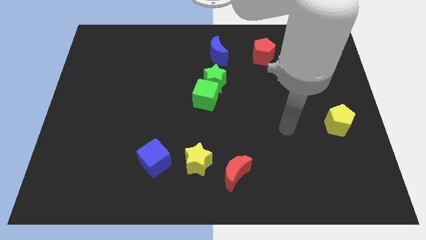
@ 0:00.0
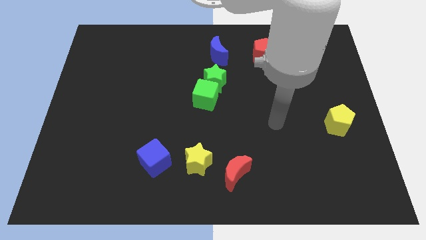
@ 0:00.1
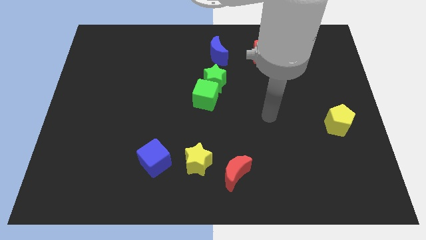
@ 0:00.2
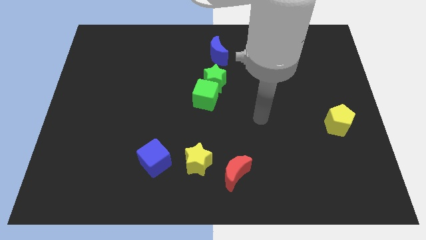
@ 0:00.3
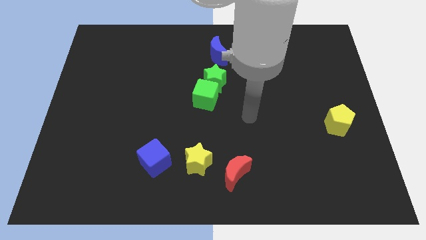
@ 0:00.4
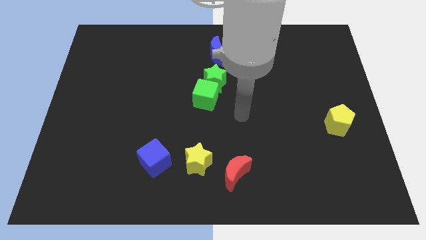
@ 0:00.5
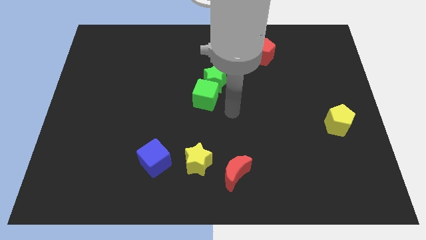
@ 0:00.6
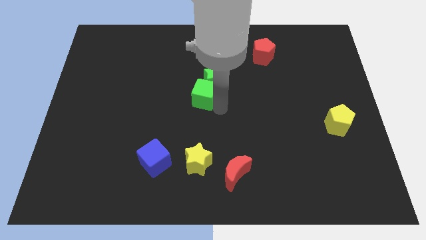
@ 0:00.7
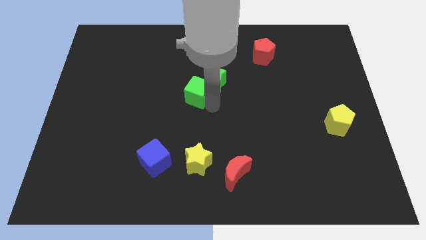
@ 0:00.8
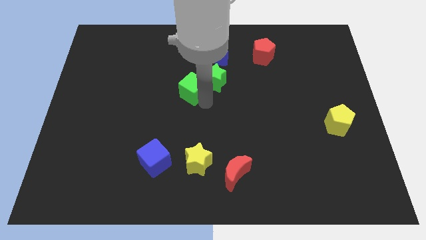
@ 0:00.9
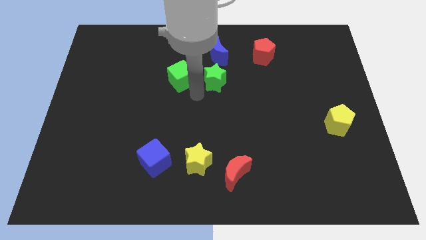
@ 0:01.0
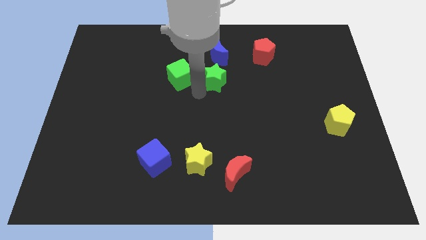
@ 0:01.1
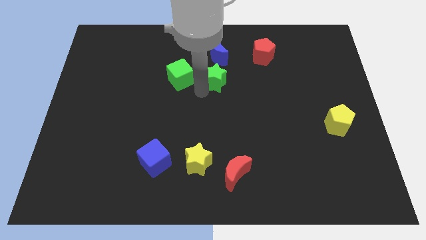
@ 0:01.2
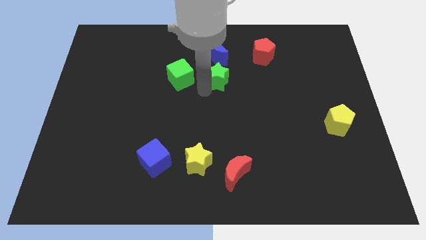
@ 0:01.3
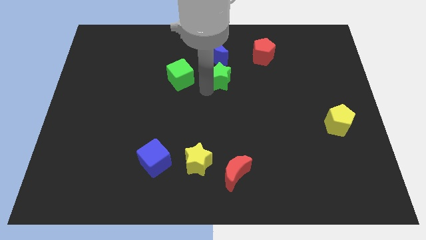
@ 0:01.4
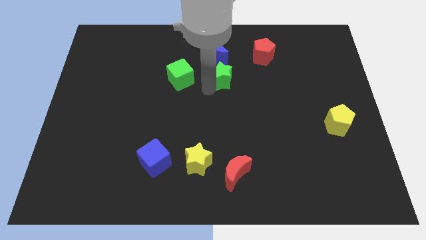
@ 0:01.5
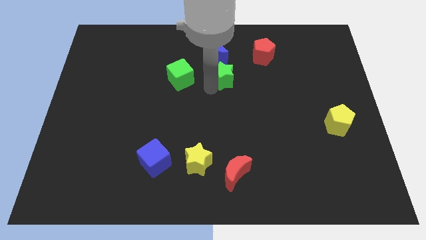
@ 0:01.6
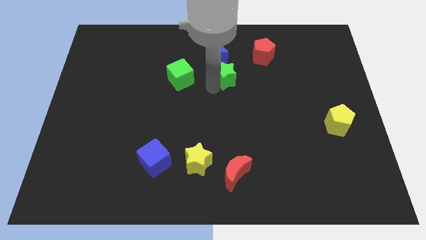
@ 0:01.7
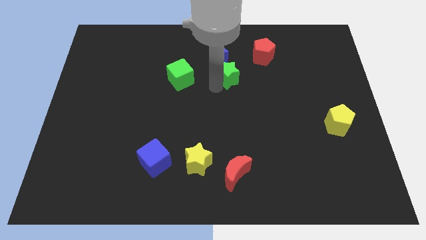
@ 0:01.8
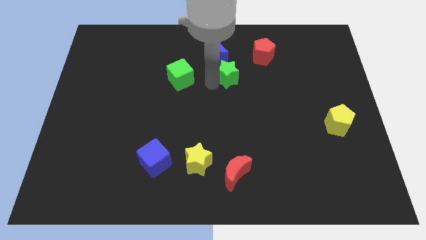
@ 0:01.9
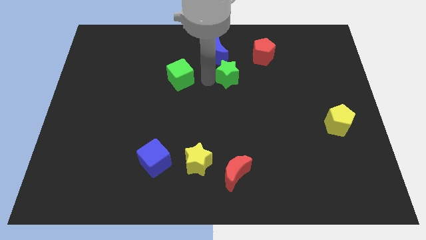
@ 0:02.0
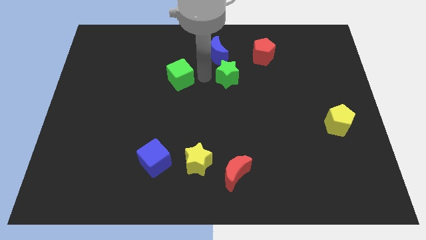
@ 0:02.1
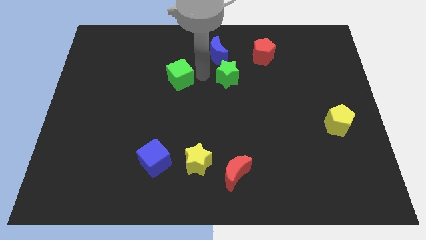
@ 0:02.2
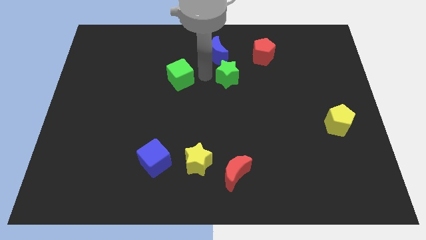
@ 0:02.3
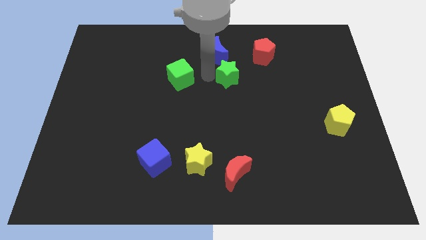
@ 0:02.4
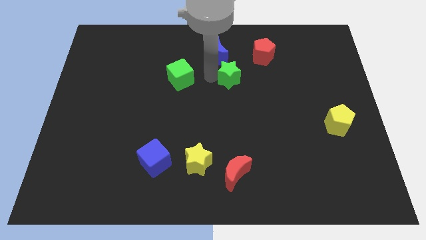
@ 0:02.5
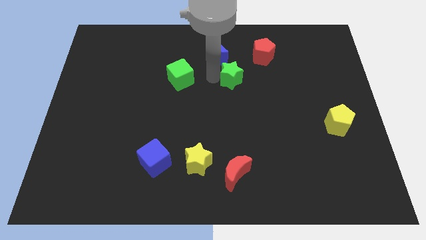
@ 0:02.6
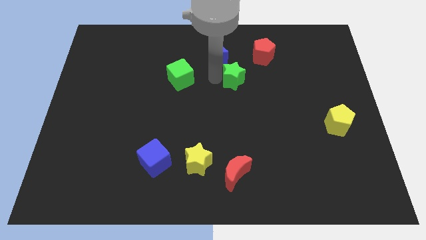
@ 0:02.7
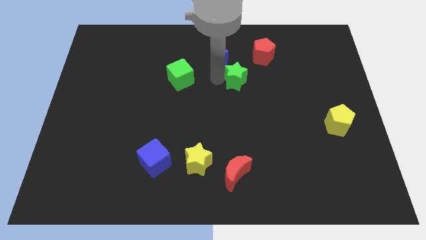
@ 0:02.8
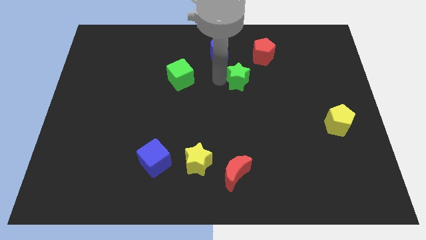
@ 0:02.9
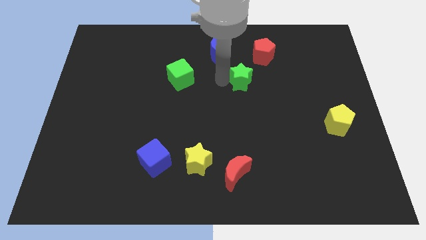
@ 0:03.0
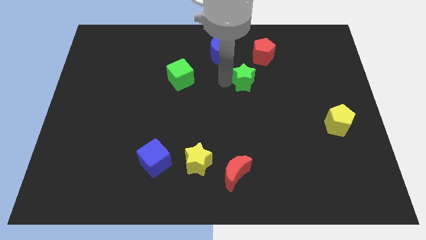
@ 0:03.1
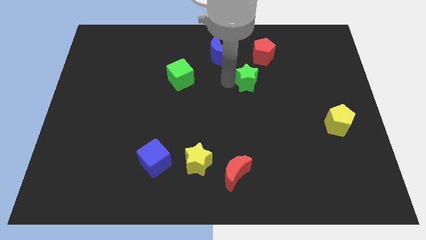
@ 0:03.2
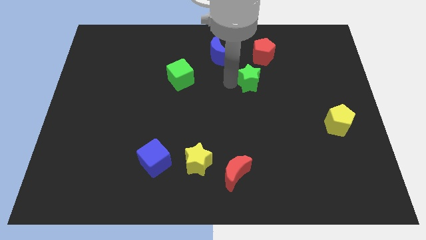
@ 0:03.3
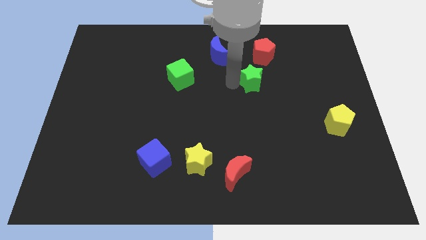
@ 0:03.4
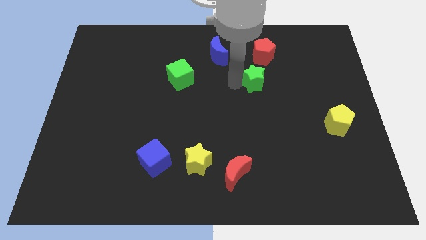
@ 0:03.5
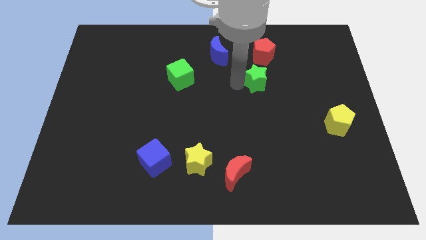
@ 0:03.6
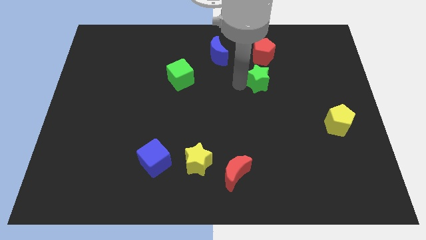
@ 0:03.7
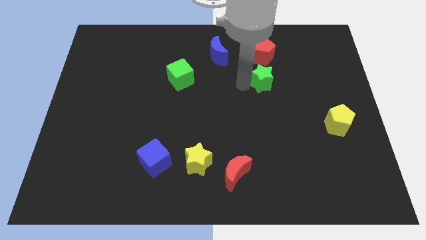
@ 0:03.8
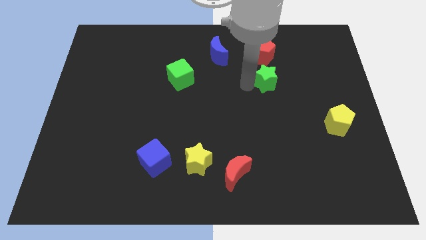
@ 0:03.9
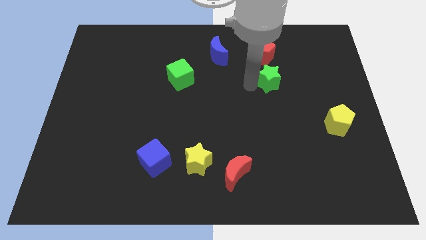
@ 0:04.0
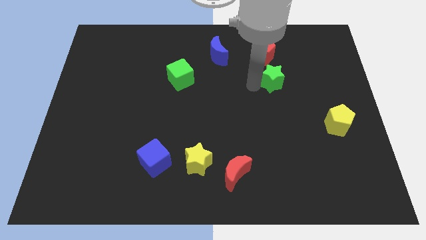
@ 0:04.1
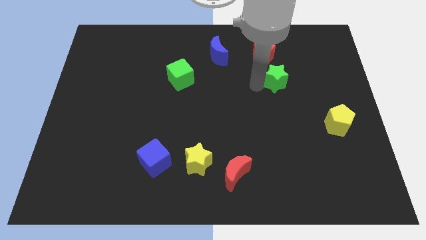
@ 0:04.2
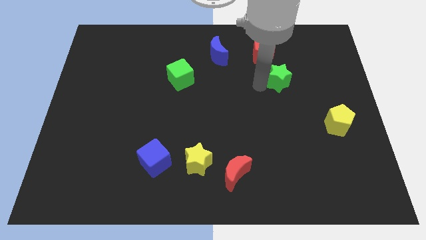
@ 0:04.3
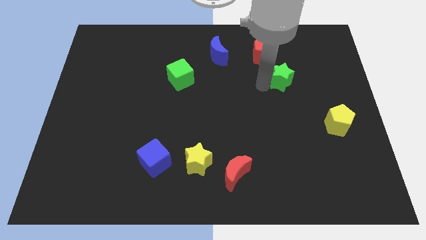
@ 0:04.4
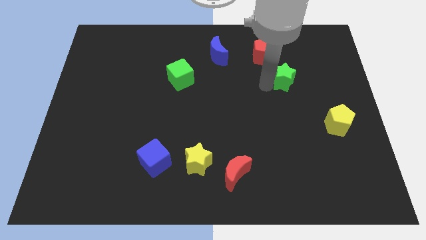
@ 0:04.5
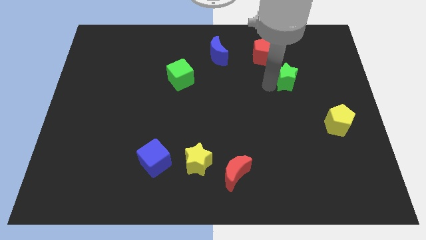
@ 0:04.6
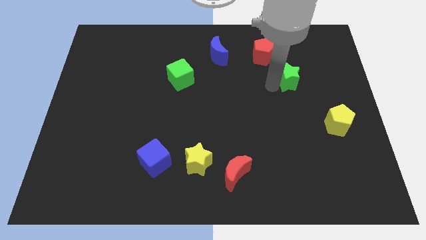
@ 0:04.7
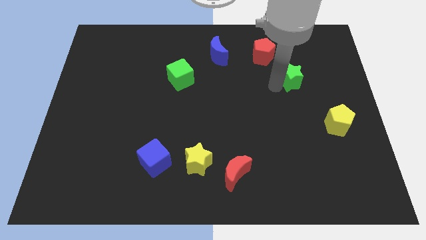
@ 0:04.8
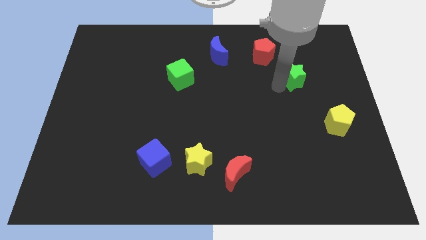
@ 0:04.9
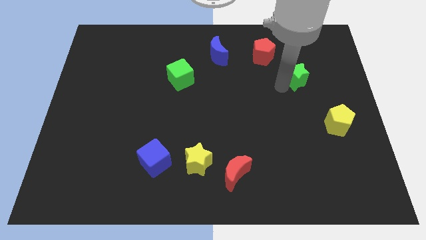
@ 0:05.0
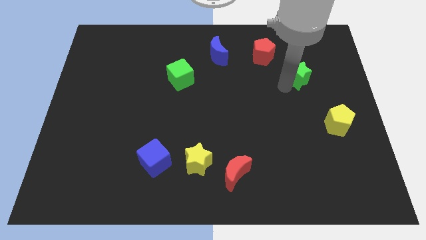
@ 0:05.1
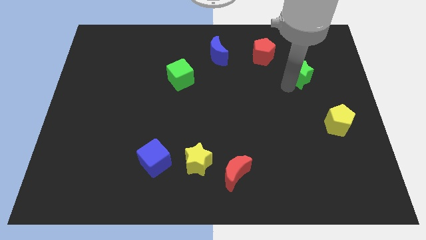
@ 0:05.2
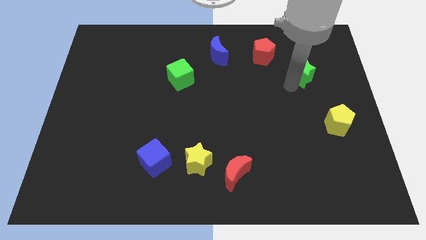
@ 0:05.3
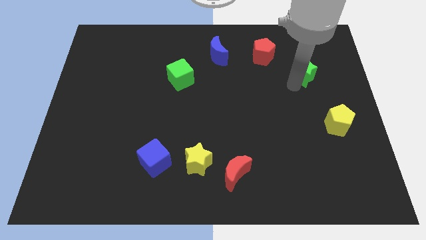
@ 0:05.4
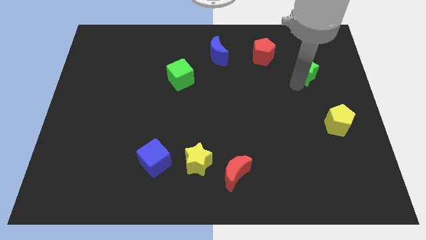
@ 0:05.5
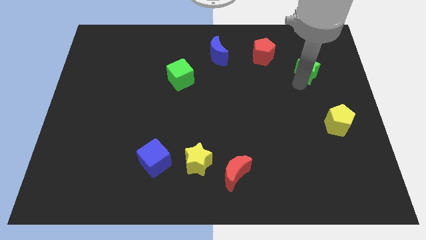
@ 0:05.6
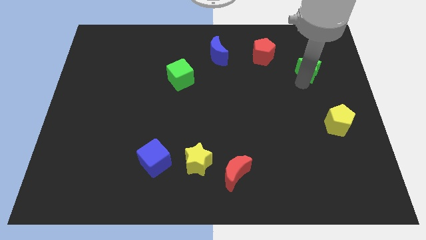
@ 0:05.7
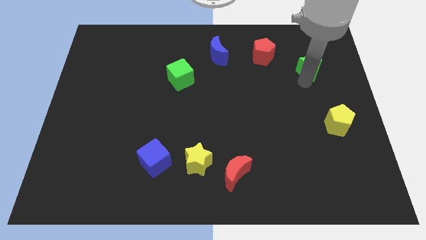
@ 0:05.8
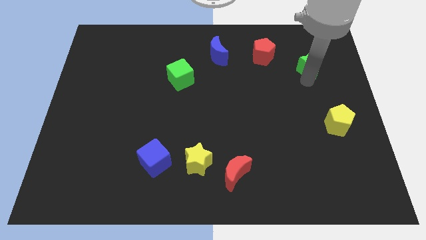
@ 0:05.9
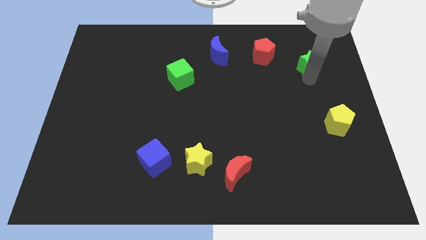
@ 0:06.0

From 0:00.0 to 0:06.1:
push the green star to the right of the red pentagon

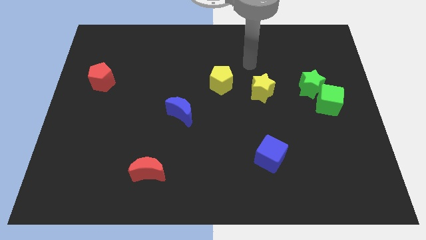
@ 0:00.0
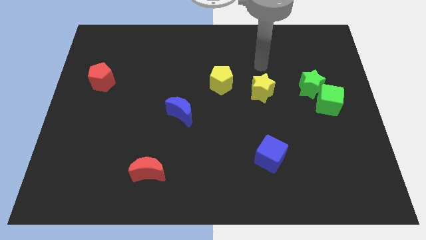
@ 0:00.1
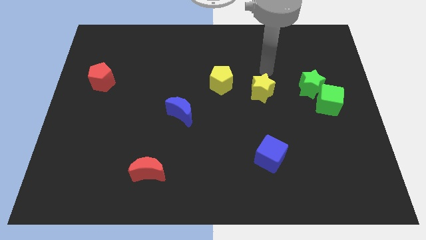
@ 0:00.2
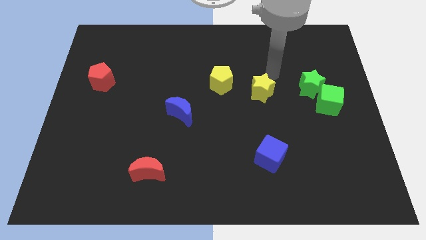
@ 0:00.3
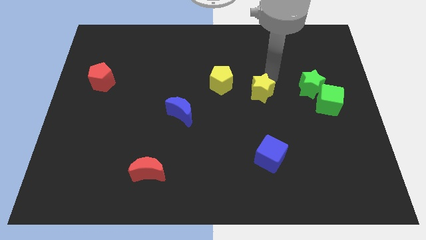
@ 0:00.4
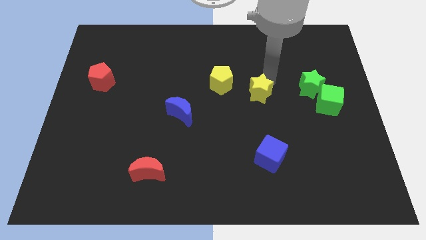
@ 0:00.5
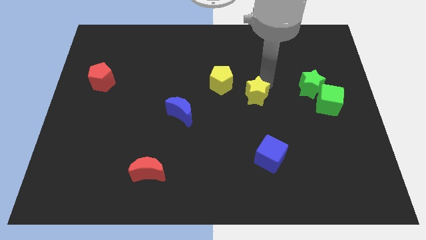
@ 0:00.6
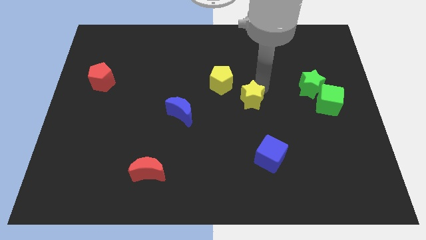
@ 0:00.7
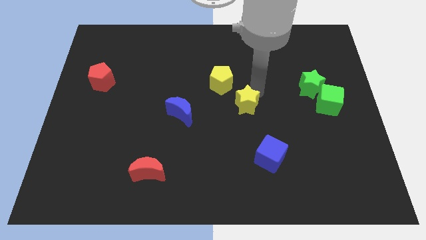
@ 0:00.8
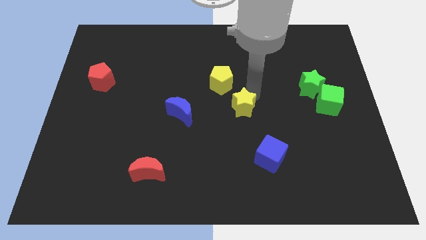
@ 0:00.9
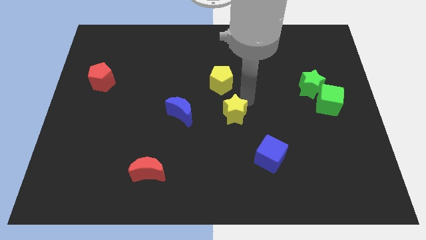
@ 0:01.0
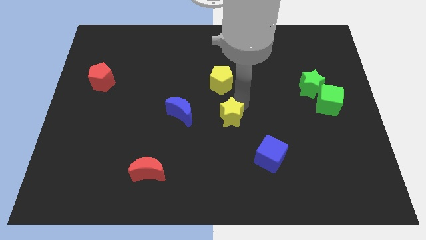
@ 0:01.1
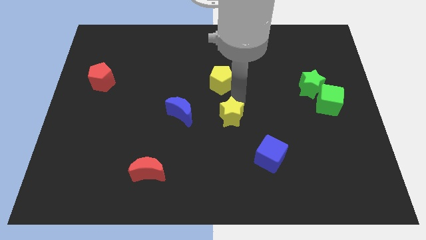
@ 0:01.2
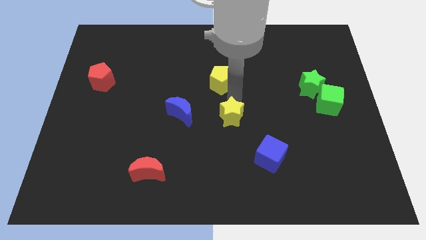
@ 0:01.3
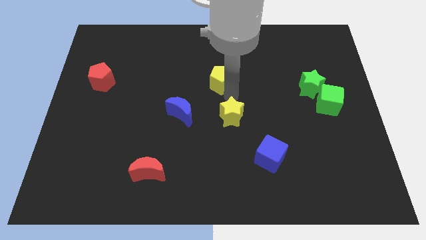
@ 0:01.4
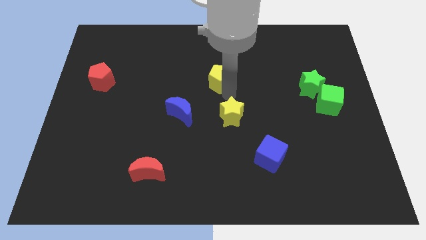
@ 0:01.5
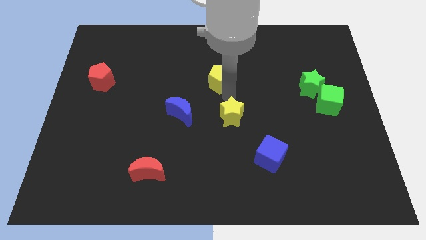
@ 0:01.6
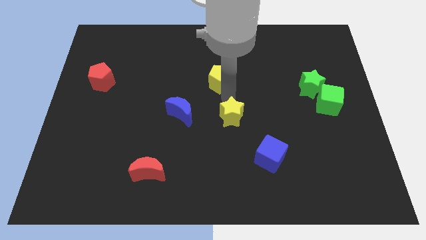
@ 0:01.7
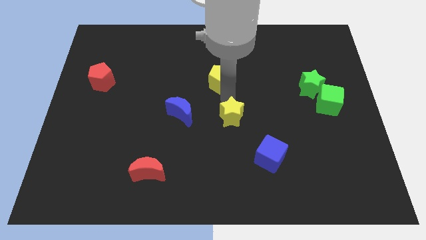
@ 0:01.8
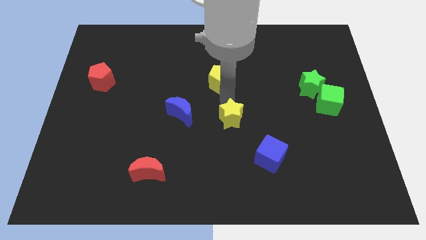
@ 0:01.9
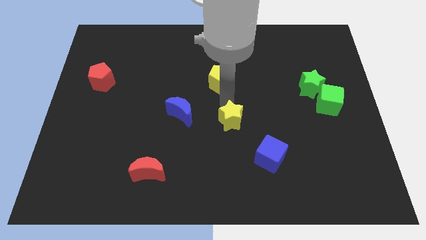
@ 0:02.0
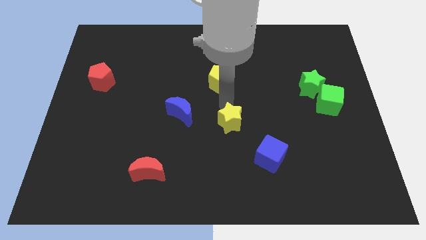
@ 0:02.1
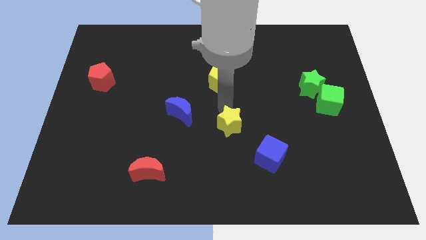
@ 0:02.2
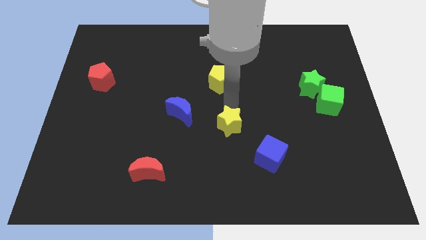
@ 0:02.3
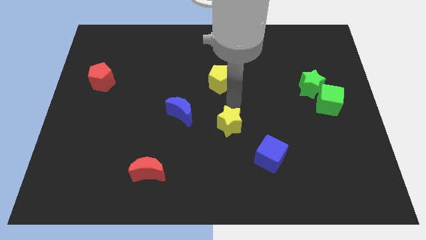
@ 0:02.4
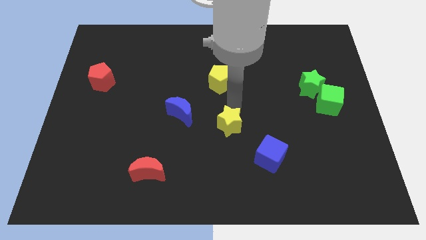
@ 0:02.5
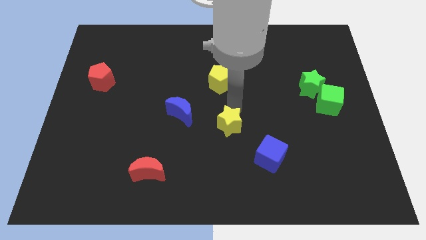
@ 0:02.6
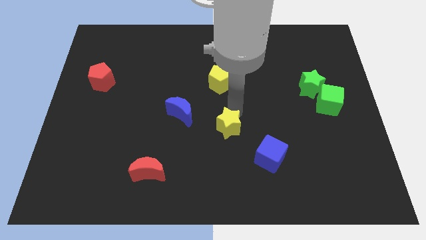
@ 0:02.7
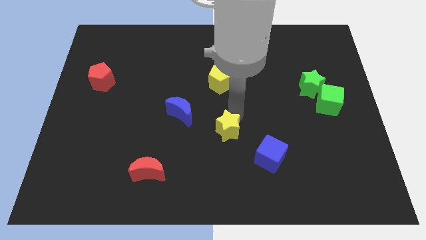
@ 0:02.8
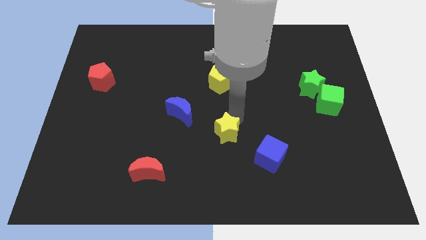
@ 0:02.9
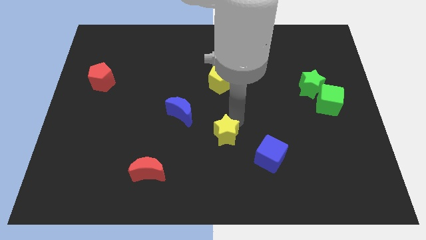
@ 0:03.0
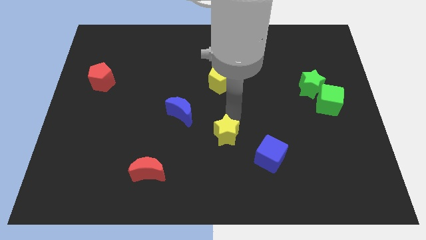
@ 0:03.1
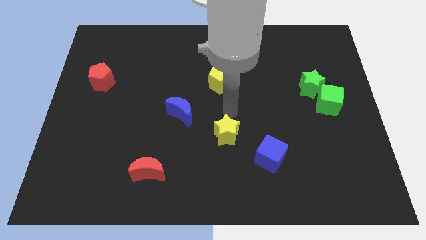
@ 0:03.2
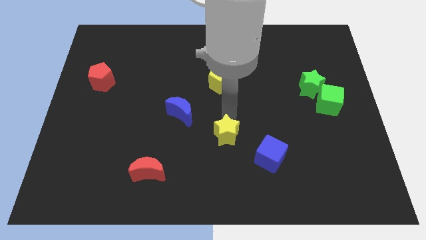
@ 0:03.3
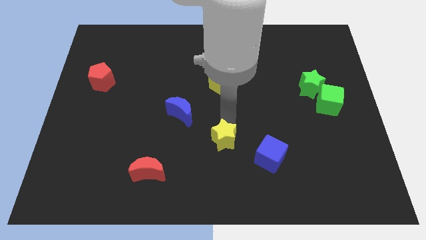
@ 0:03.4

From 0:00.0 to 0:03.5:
slide the yellow star to the left of the blue cube
